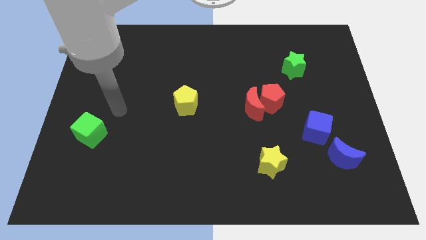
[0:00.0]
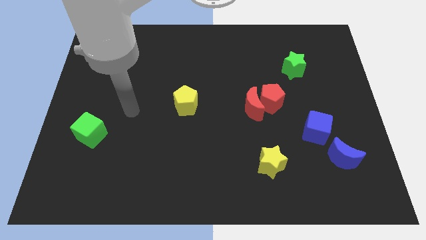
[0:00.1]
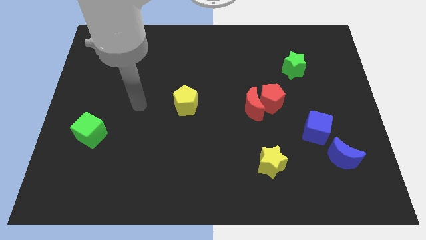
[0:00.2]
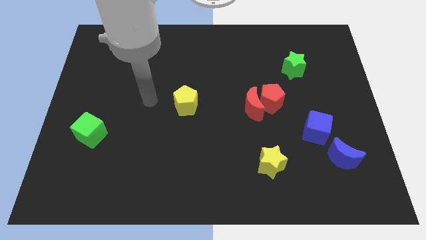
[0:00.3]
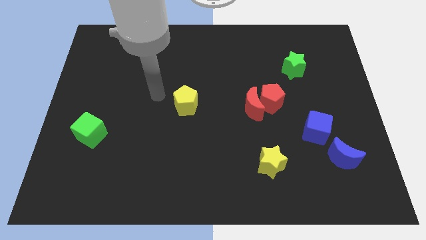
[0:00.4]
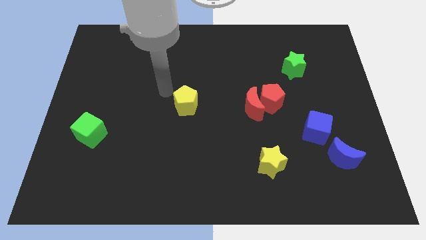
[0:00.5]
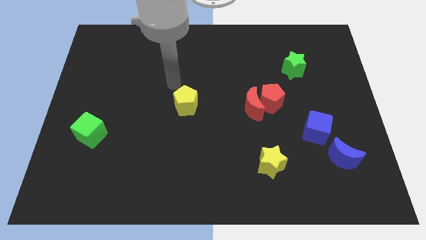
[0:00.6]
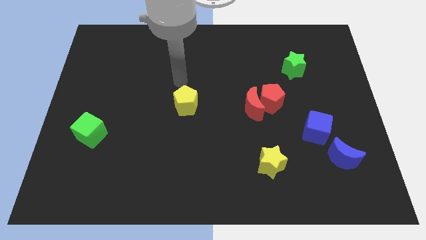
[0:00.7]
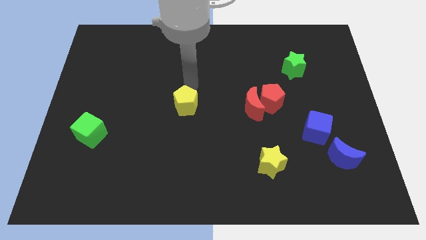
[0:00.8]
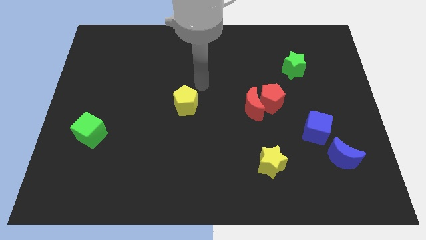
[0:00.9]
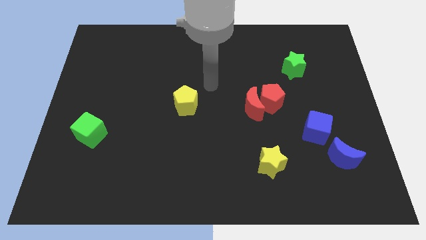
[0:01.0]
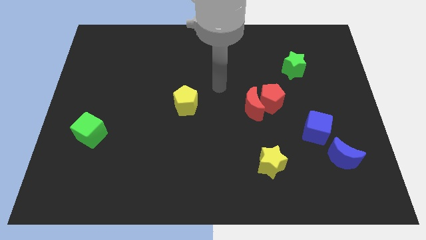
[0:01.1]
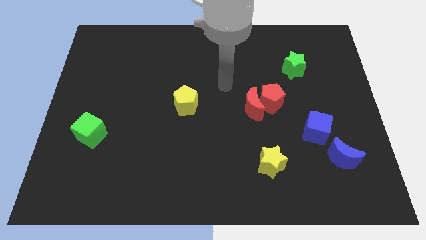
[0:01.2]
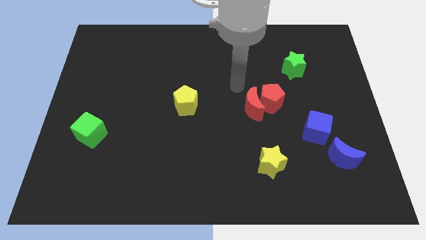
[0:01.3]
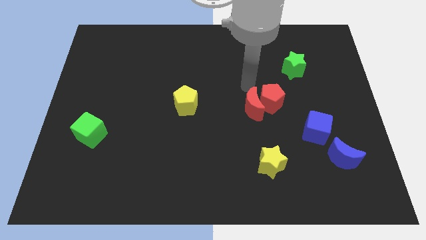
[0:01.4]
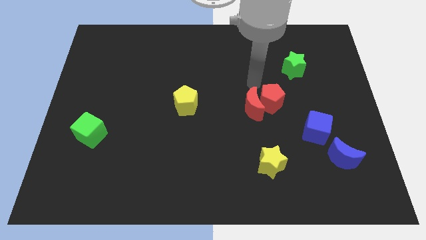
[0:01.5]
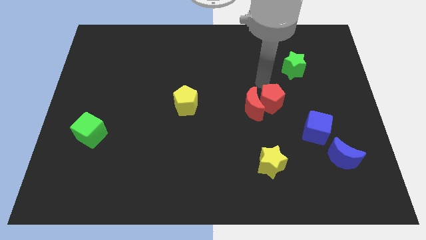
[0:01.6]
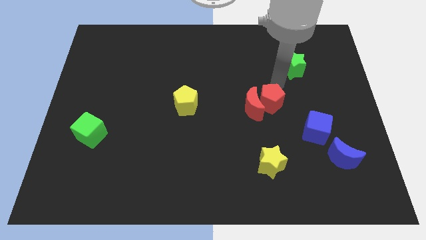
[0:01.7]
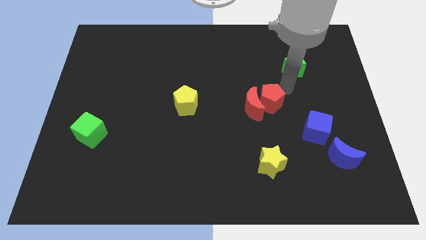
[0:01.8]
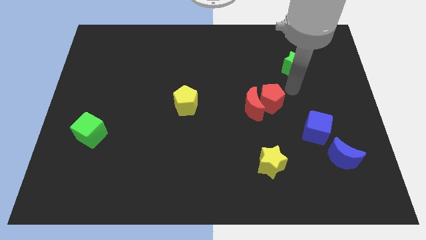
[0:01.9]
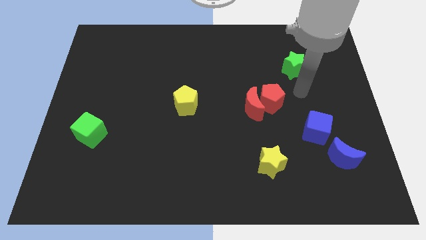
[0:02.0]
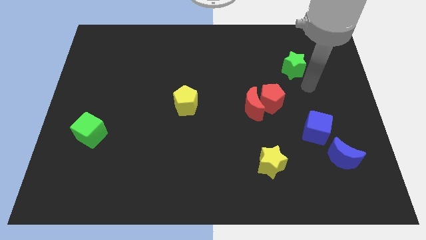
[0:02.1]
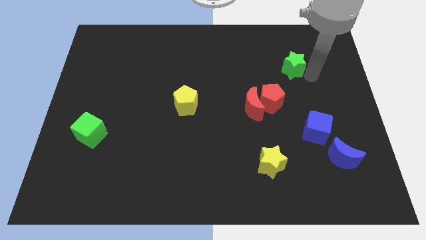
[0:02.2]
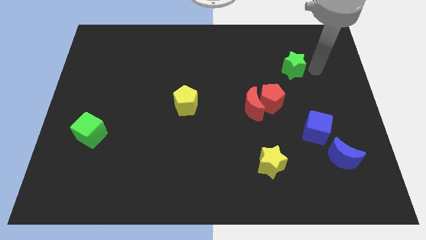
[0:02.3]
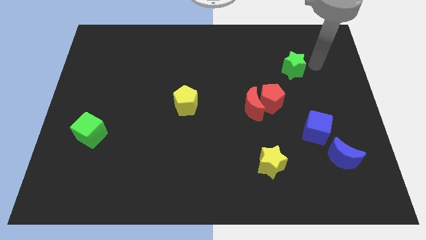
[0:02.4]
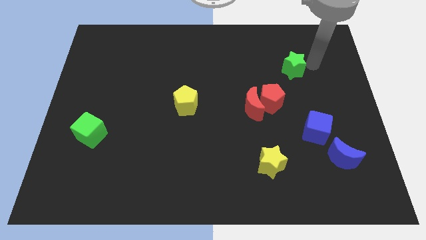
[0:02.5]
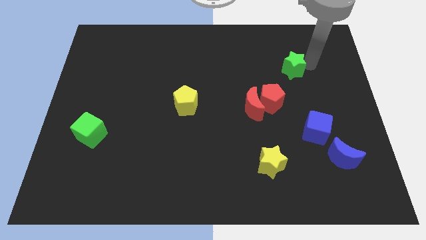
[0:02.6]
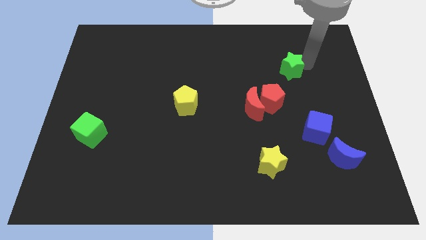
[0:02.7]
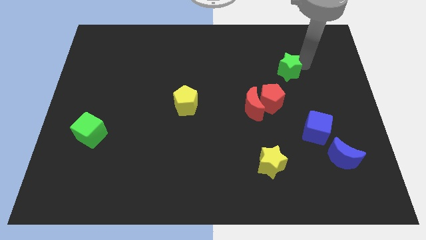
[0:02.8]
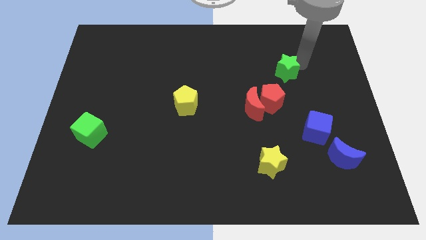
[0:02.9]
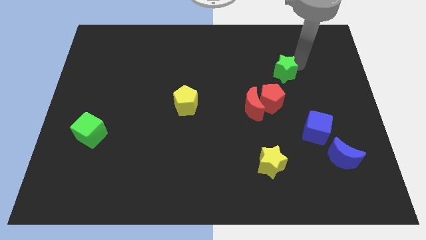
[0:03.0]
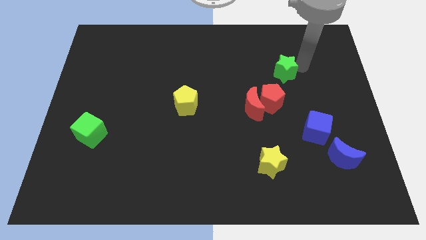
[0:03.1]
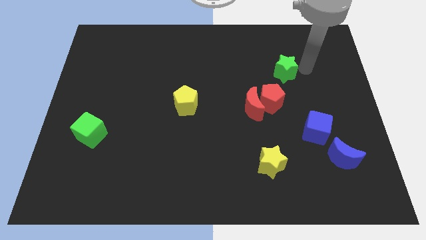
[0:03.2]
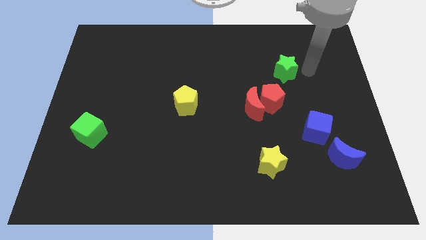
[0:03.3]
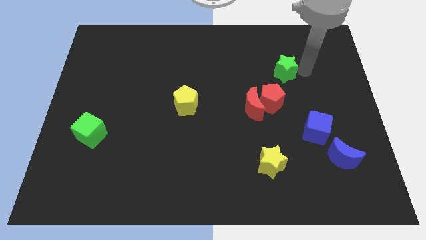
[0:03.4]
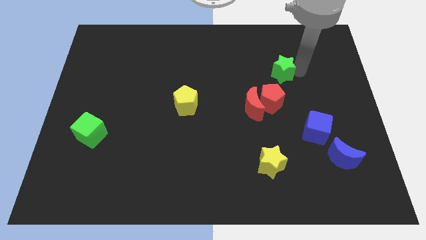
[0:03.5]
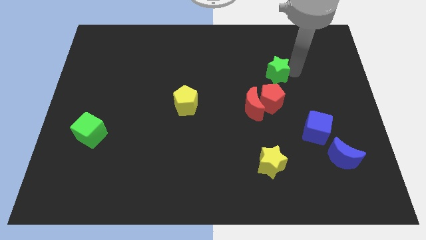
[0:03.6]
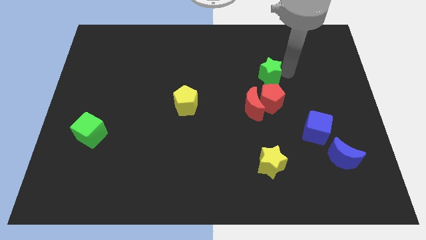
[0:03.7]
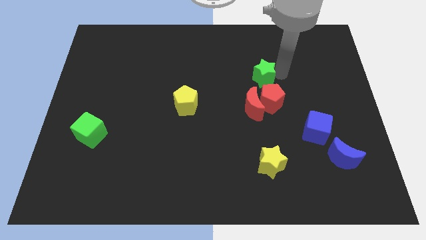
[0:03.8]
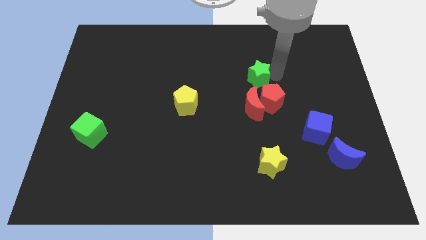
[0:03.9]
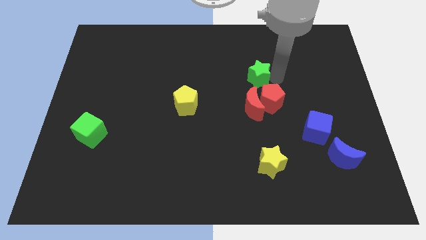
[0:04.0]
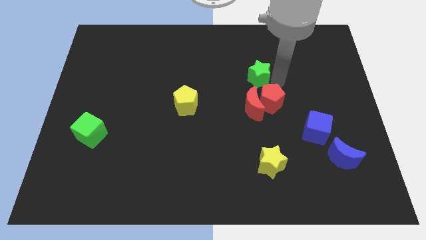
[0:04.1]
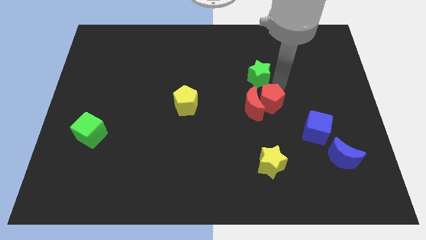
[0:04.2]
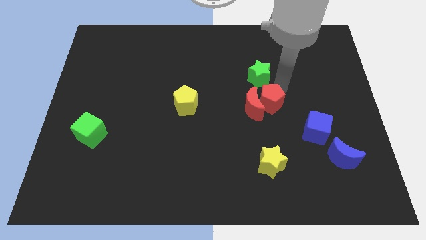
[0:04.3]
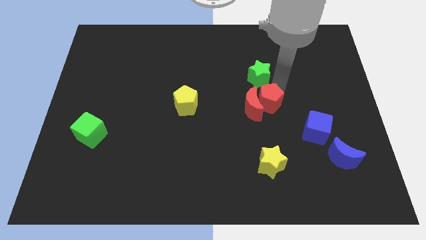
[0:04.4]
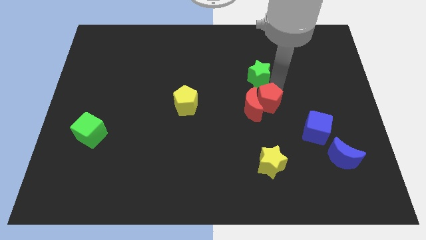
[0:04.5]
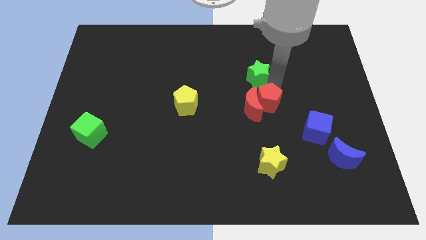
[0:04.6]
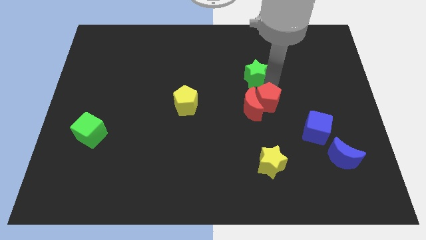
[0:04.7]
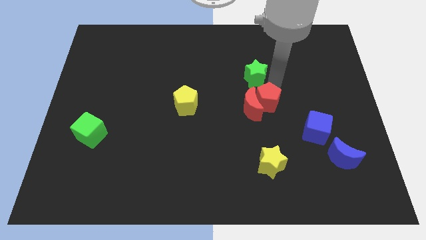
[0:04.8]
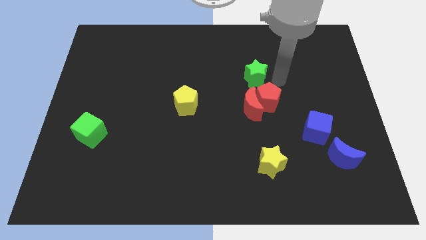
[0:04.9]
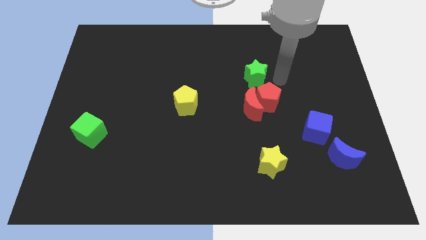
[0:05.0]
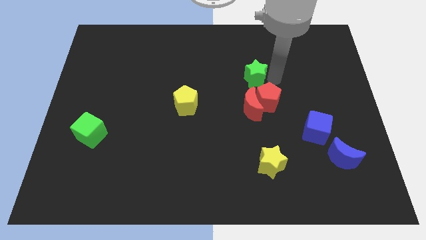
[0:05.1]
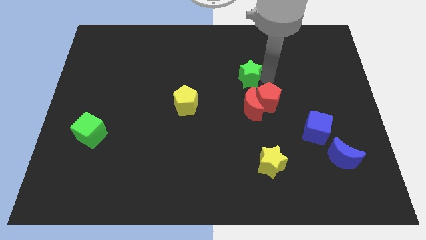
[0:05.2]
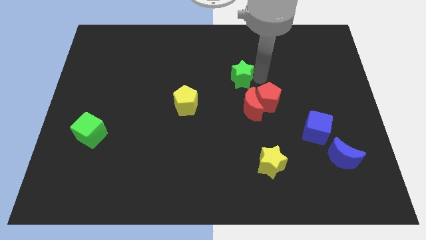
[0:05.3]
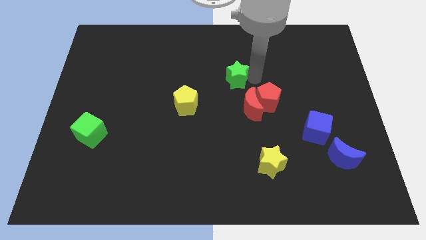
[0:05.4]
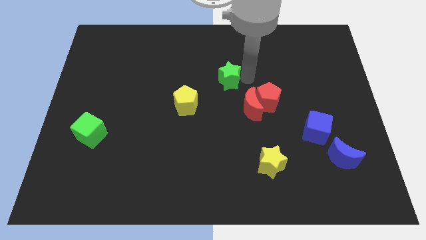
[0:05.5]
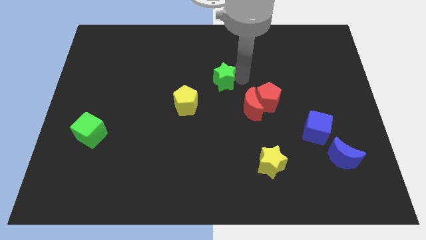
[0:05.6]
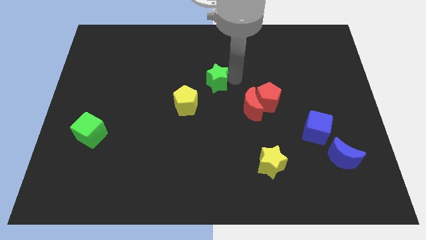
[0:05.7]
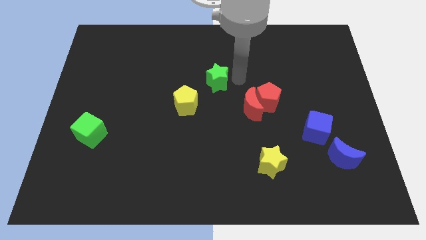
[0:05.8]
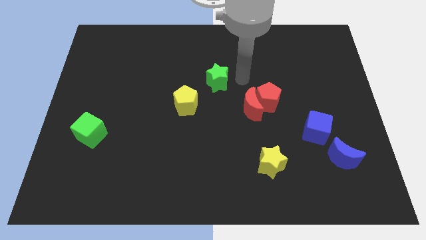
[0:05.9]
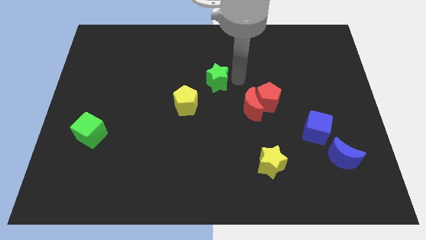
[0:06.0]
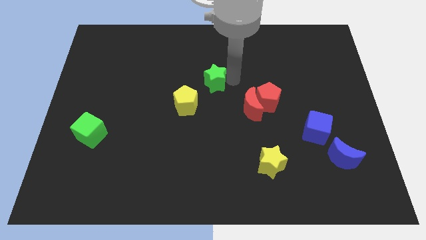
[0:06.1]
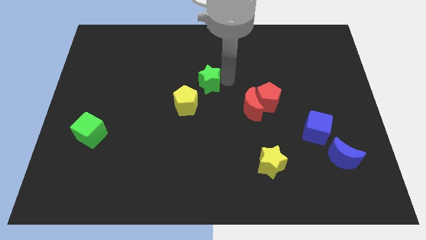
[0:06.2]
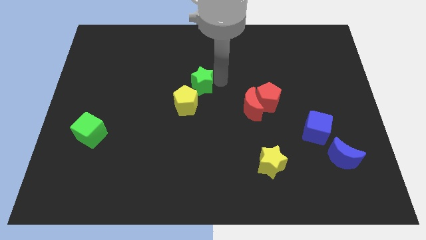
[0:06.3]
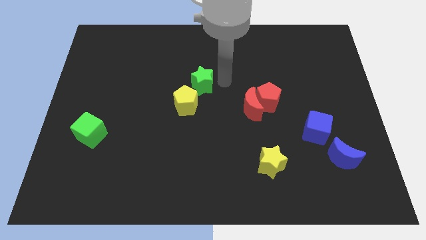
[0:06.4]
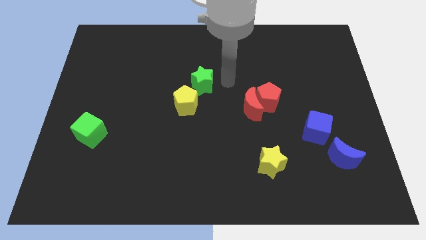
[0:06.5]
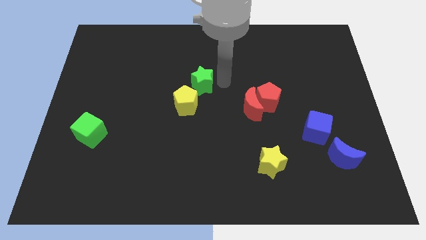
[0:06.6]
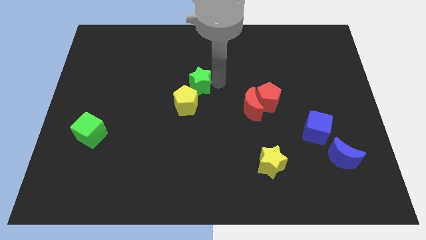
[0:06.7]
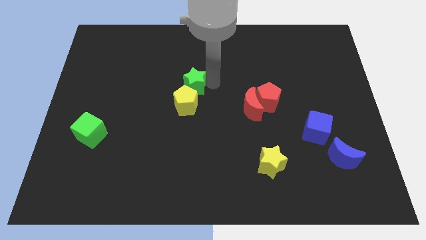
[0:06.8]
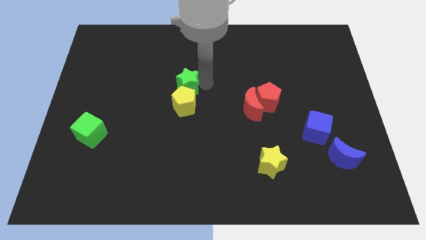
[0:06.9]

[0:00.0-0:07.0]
move the green star diagonally up and to the left of the yellow pentagon
